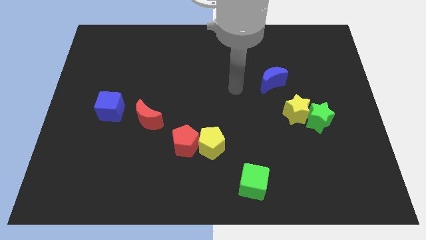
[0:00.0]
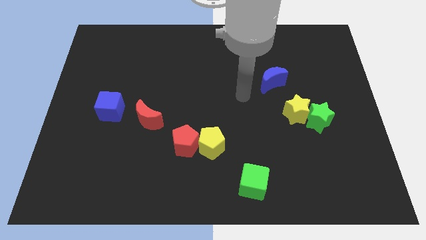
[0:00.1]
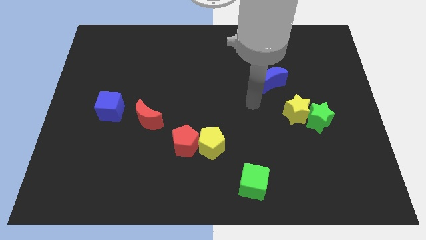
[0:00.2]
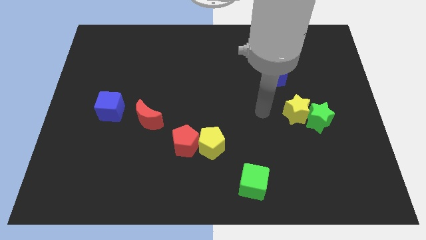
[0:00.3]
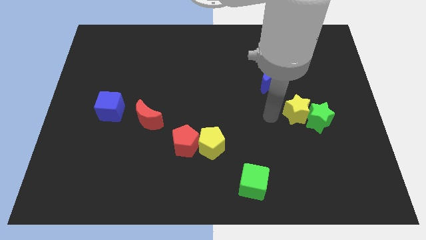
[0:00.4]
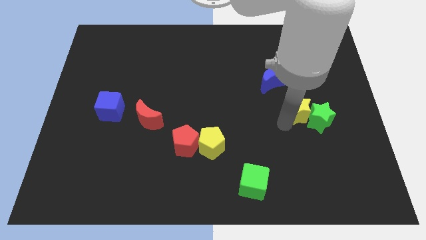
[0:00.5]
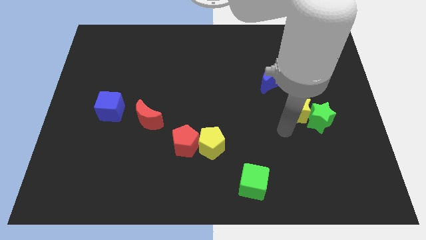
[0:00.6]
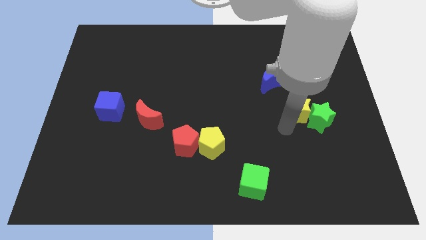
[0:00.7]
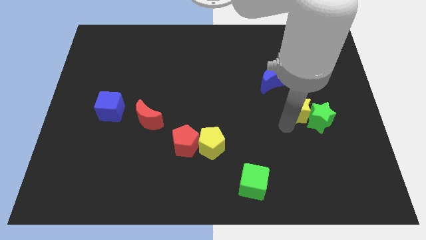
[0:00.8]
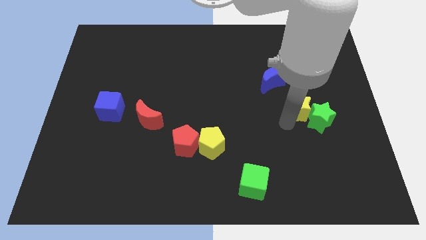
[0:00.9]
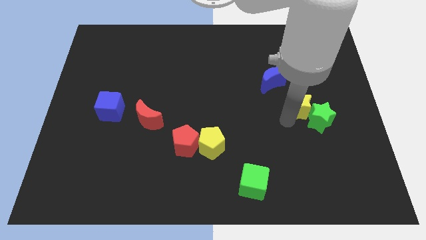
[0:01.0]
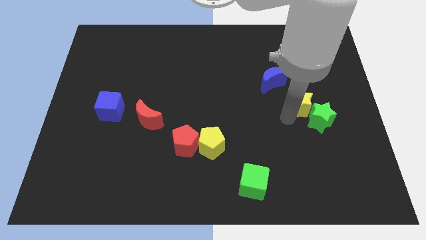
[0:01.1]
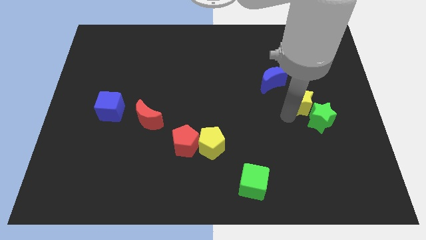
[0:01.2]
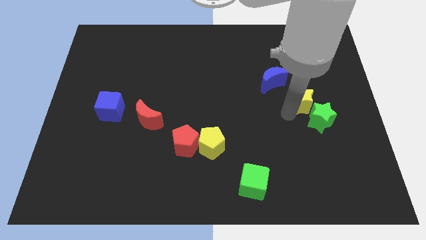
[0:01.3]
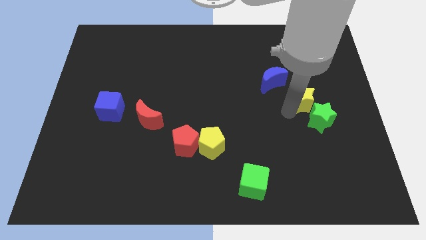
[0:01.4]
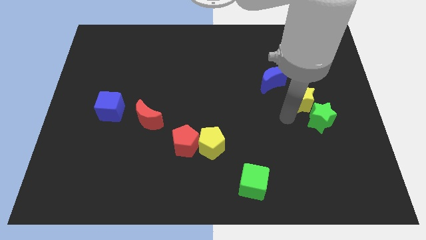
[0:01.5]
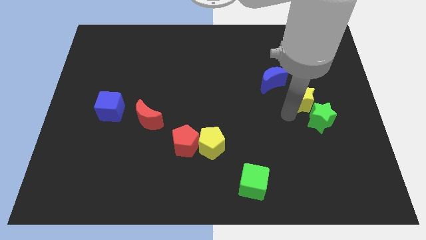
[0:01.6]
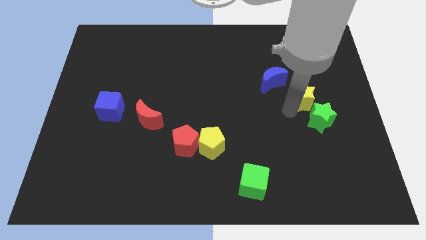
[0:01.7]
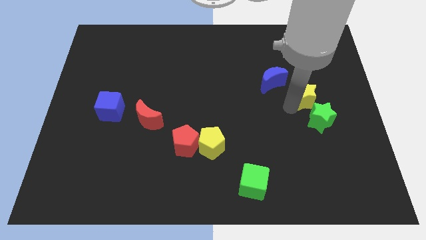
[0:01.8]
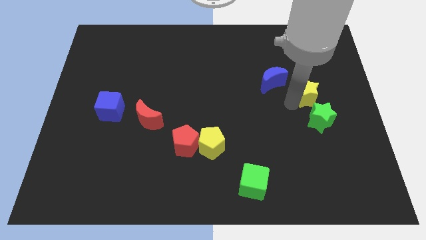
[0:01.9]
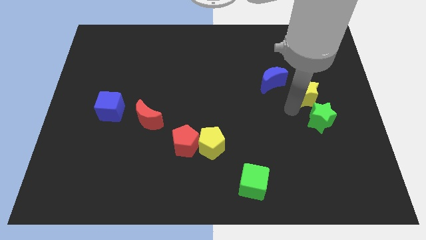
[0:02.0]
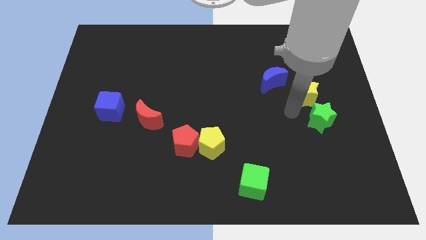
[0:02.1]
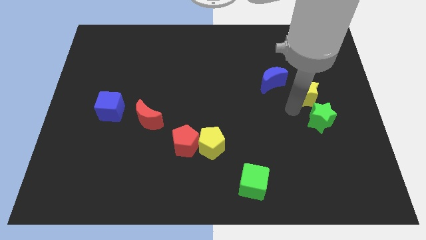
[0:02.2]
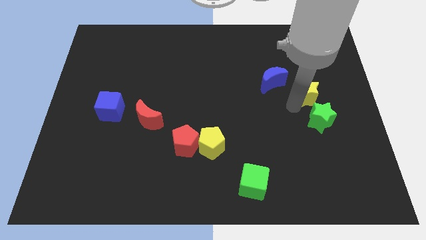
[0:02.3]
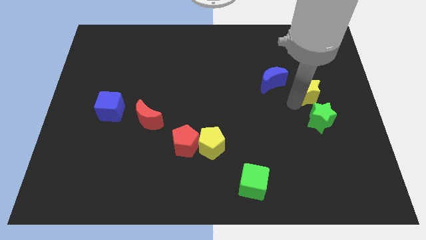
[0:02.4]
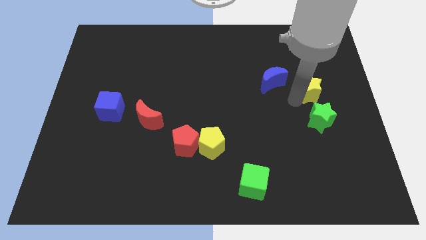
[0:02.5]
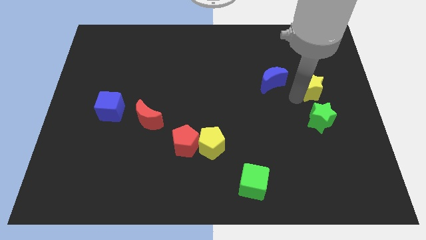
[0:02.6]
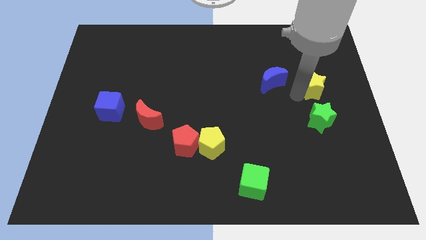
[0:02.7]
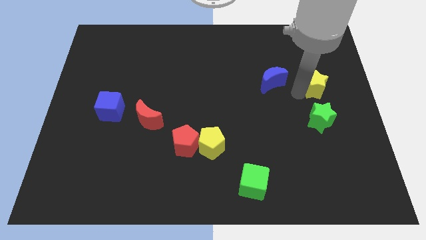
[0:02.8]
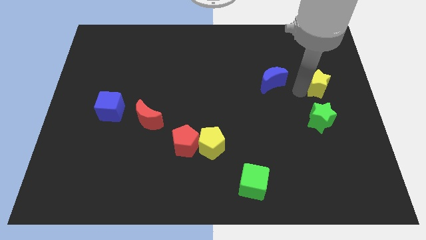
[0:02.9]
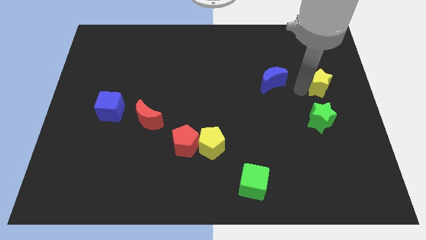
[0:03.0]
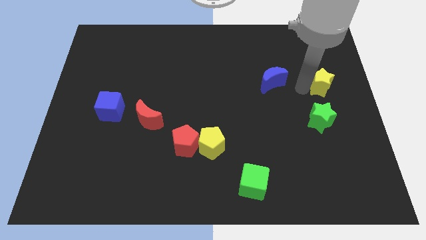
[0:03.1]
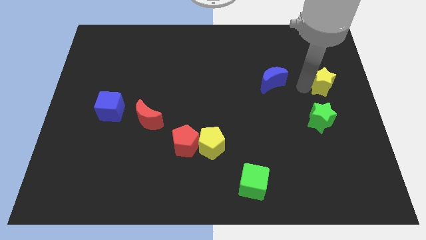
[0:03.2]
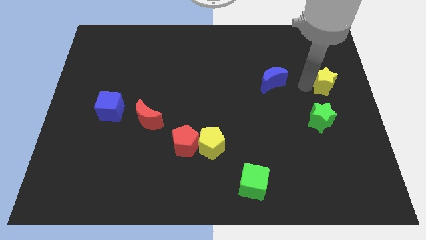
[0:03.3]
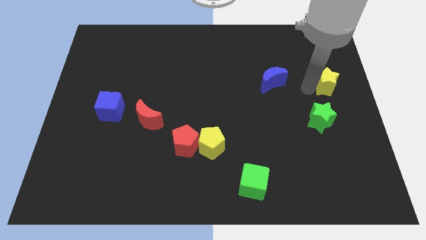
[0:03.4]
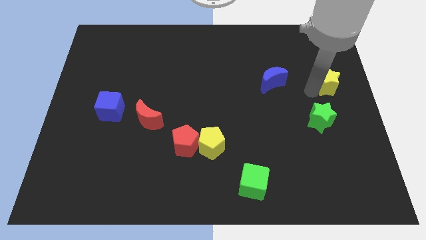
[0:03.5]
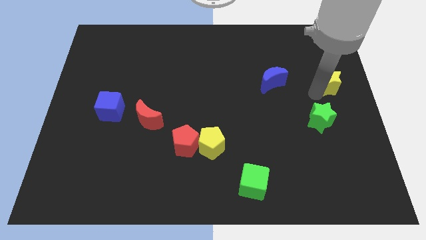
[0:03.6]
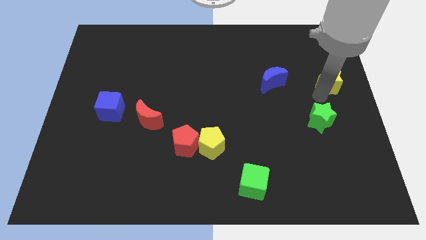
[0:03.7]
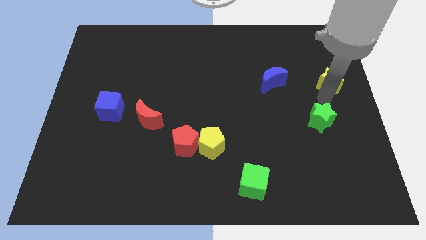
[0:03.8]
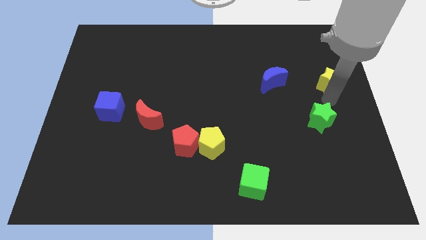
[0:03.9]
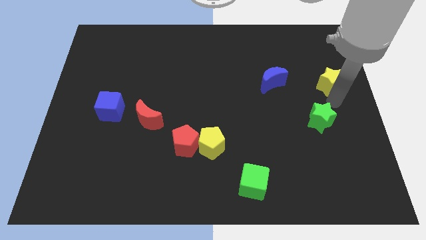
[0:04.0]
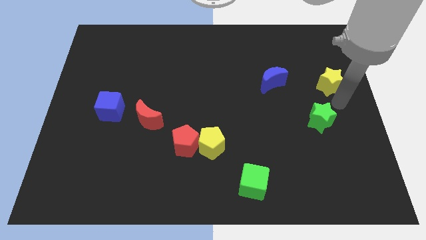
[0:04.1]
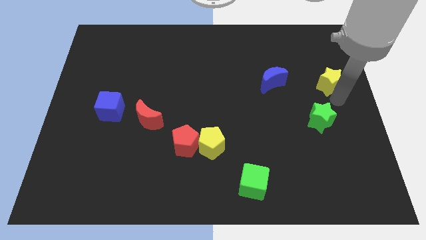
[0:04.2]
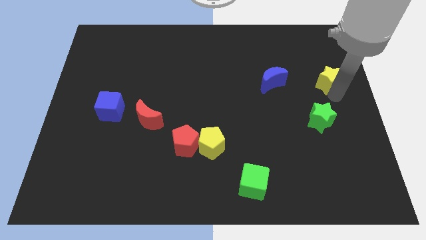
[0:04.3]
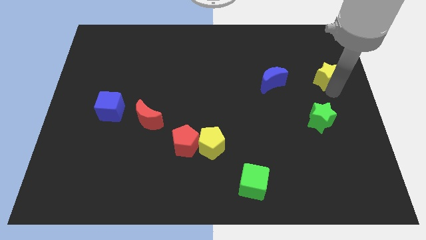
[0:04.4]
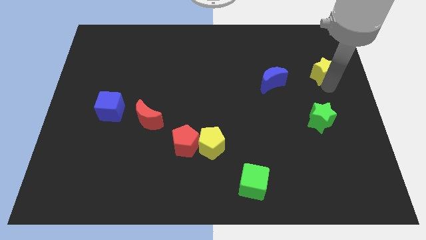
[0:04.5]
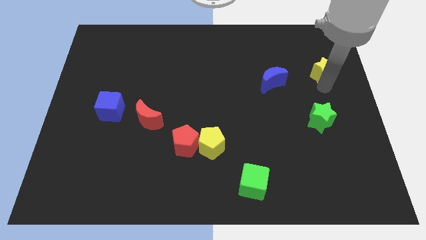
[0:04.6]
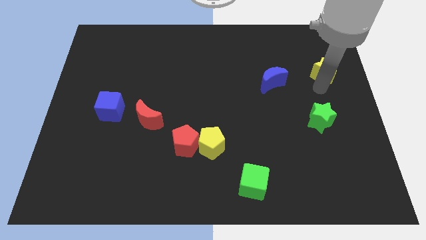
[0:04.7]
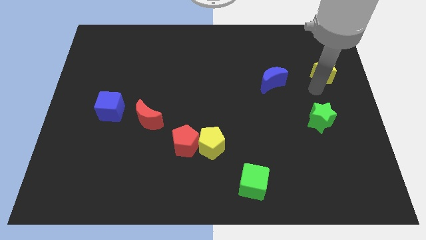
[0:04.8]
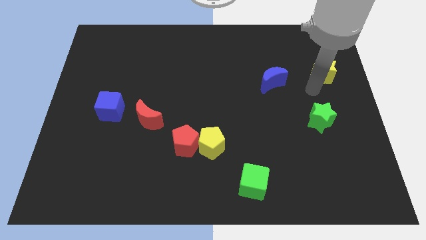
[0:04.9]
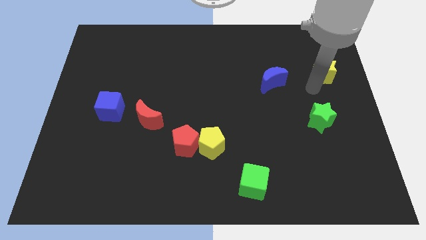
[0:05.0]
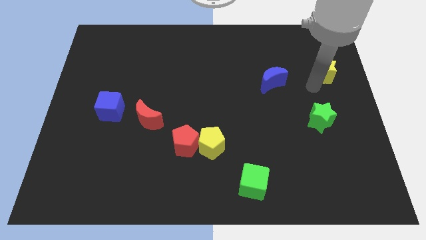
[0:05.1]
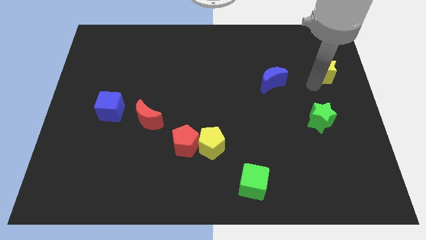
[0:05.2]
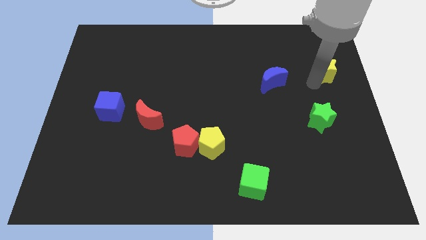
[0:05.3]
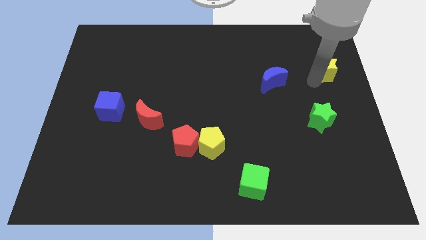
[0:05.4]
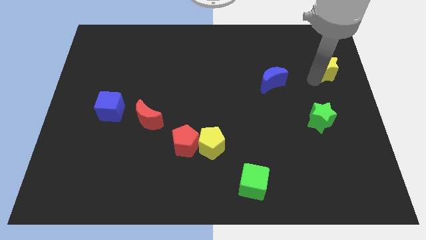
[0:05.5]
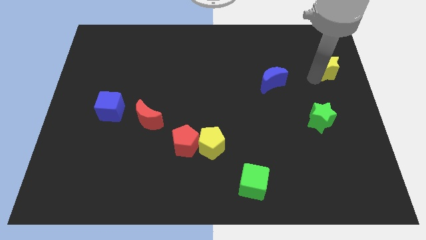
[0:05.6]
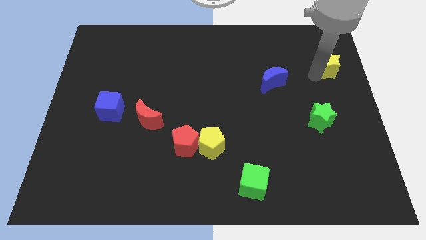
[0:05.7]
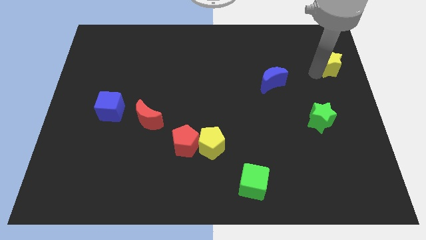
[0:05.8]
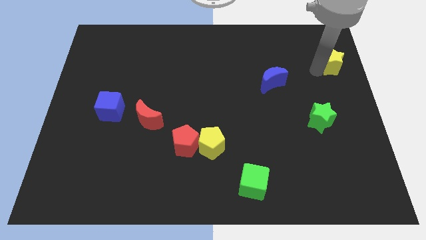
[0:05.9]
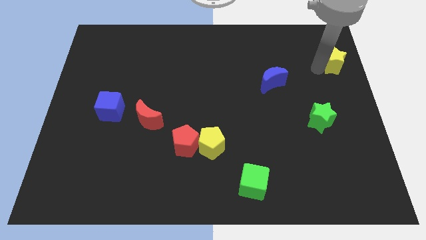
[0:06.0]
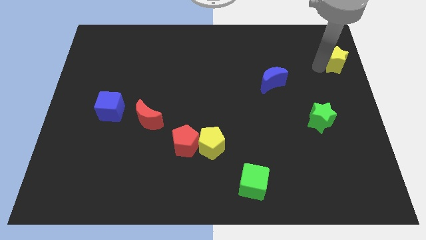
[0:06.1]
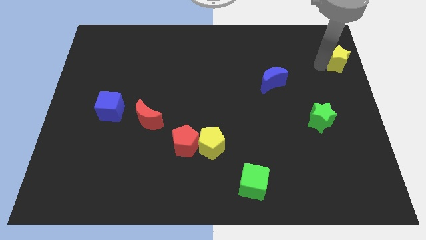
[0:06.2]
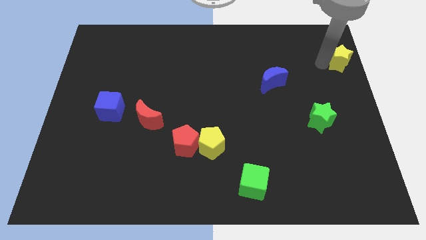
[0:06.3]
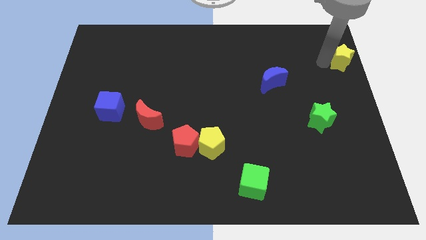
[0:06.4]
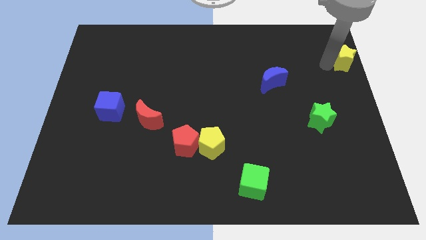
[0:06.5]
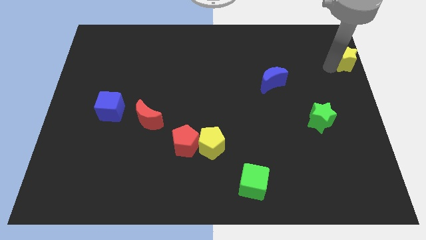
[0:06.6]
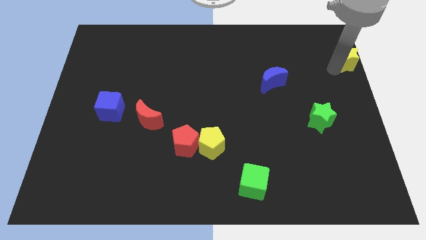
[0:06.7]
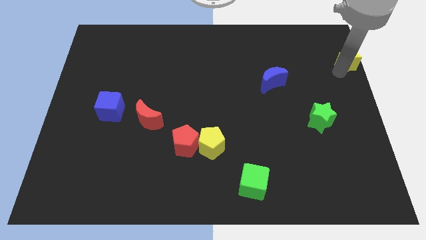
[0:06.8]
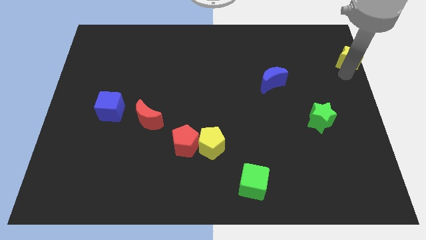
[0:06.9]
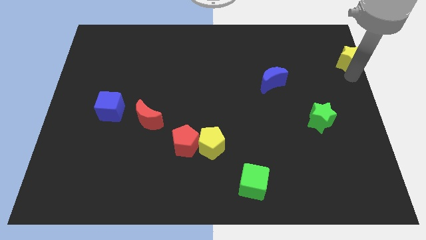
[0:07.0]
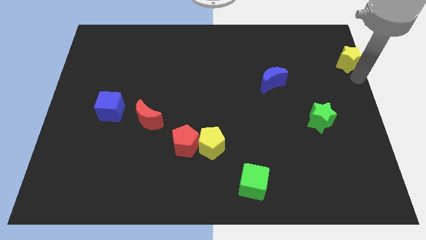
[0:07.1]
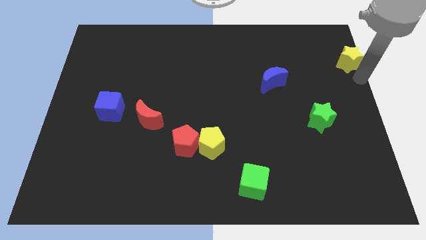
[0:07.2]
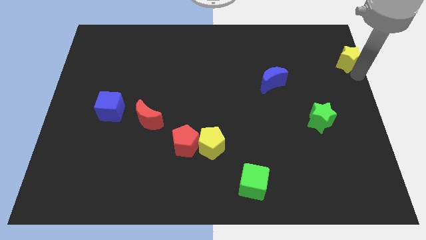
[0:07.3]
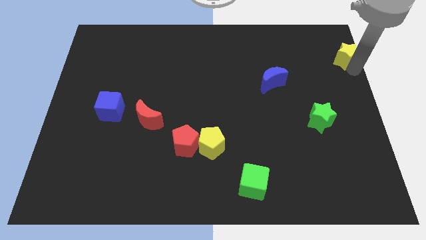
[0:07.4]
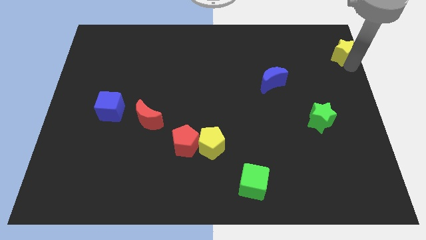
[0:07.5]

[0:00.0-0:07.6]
slide the yellow star to the top right

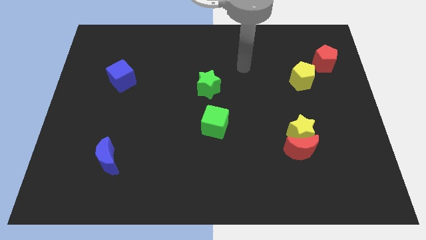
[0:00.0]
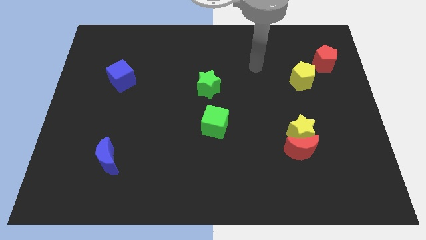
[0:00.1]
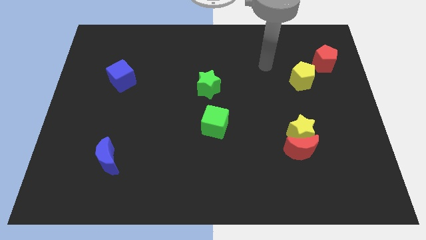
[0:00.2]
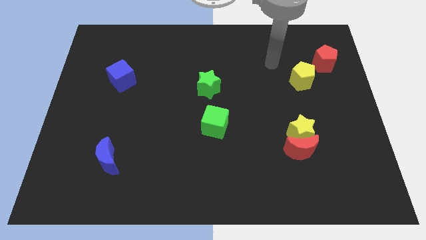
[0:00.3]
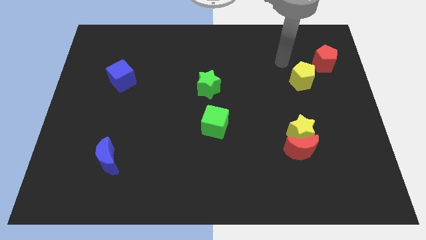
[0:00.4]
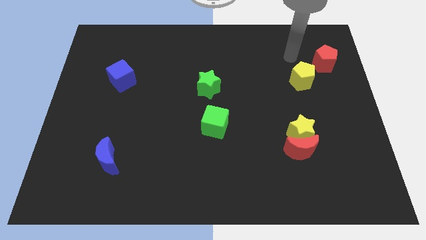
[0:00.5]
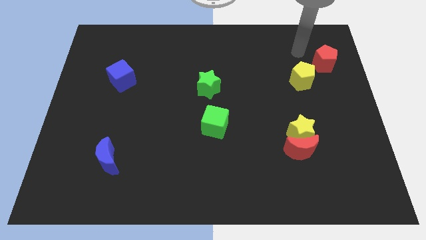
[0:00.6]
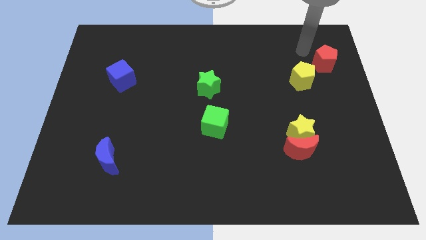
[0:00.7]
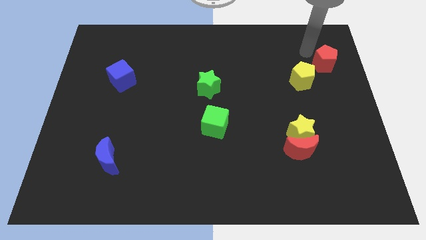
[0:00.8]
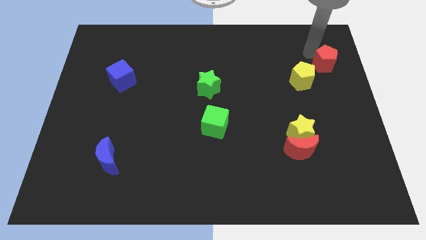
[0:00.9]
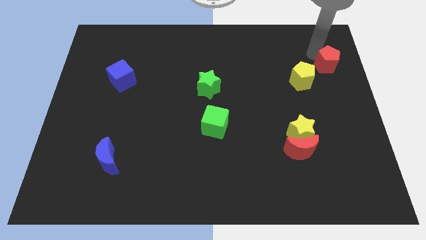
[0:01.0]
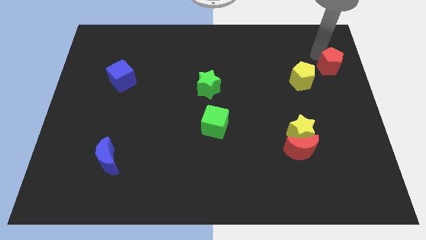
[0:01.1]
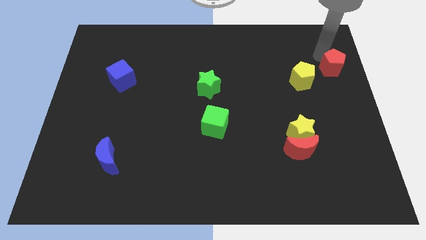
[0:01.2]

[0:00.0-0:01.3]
move the red pentagon to the right side
